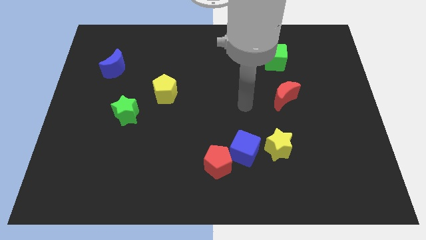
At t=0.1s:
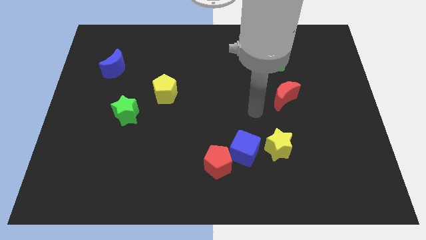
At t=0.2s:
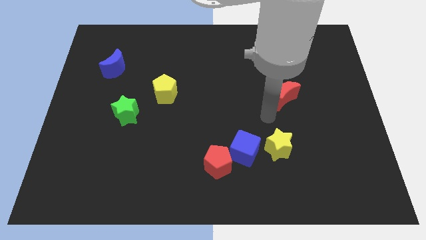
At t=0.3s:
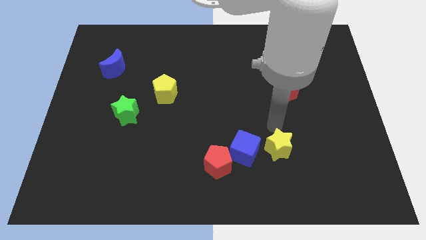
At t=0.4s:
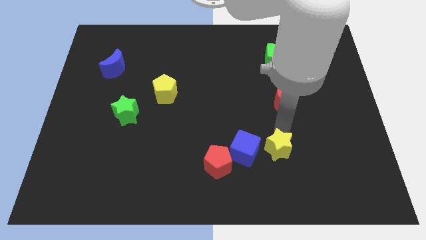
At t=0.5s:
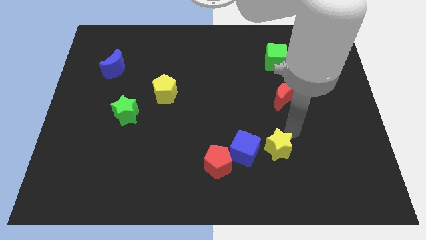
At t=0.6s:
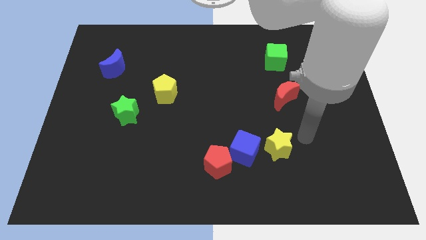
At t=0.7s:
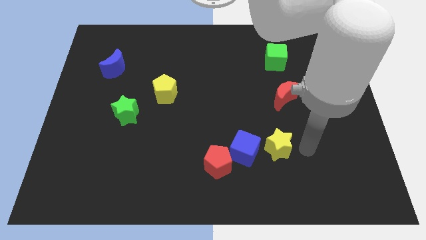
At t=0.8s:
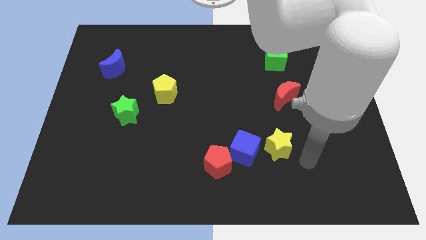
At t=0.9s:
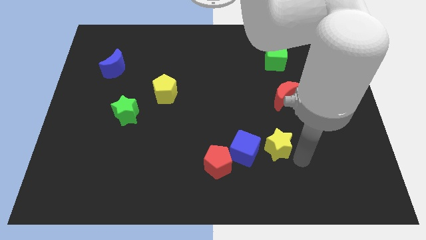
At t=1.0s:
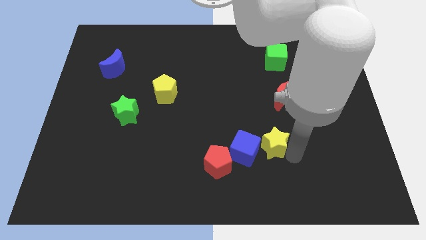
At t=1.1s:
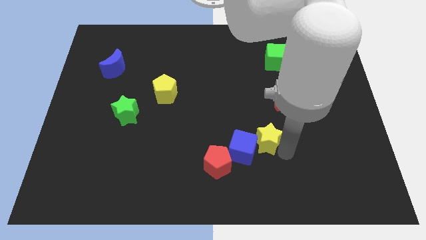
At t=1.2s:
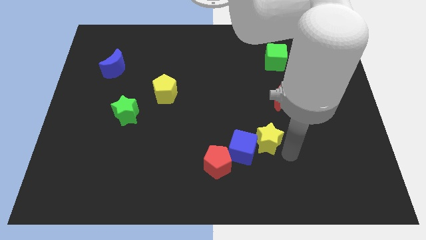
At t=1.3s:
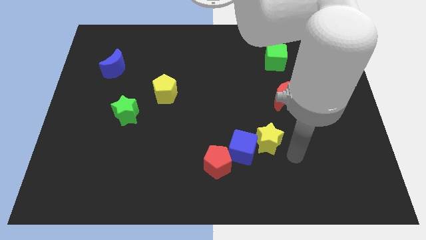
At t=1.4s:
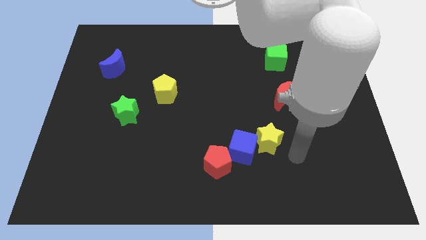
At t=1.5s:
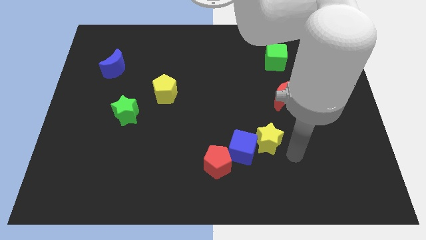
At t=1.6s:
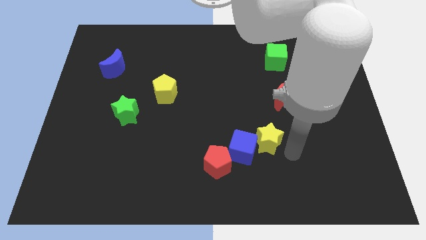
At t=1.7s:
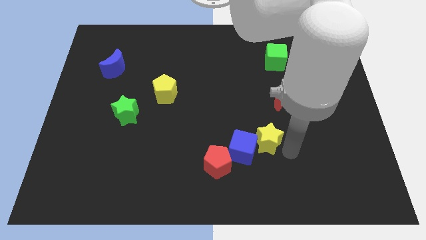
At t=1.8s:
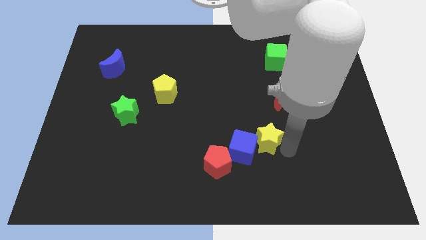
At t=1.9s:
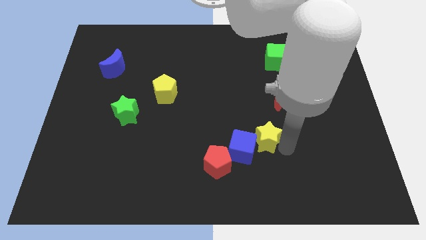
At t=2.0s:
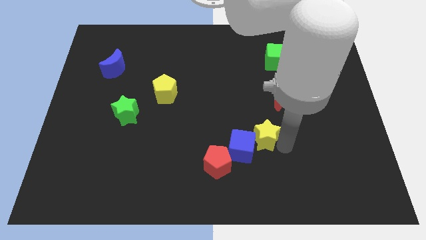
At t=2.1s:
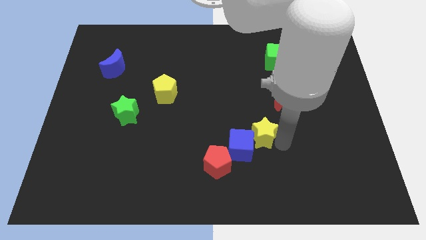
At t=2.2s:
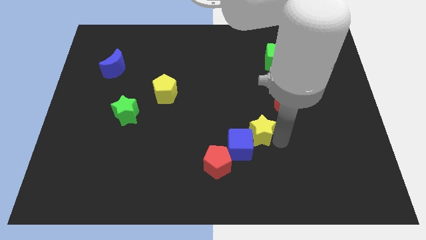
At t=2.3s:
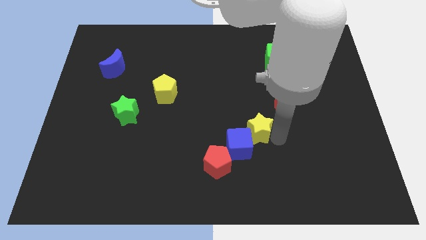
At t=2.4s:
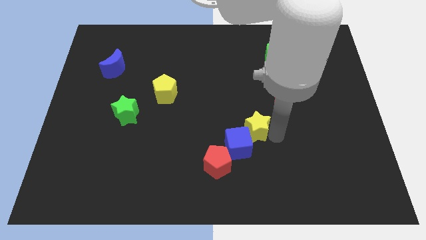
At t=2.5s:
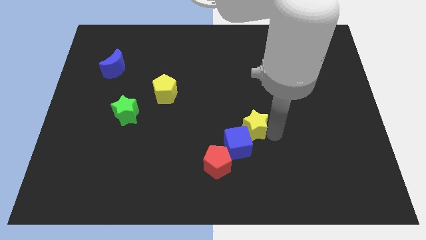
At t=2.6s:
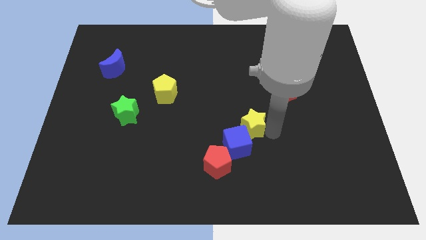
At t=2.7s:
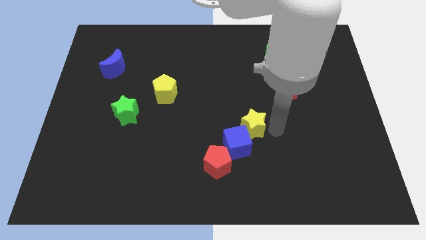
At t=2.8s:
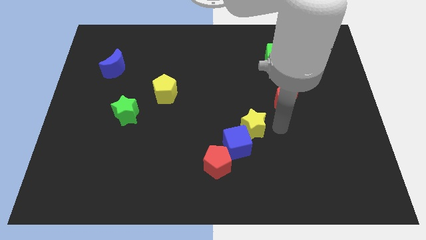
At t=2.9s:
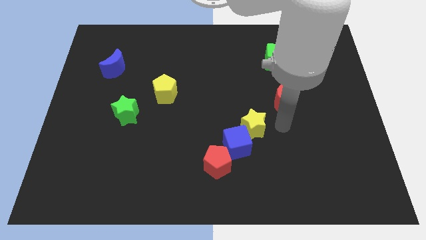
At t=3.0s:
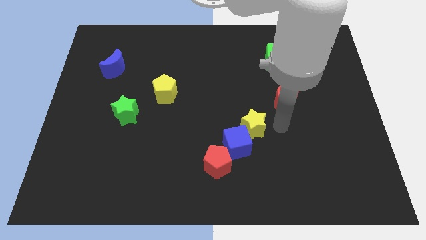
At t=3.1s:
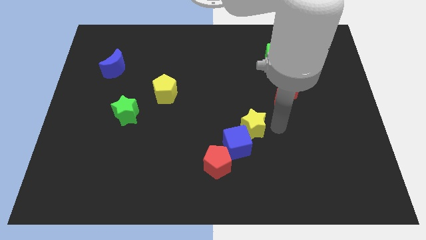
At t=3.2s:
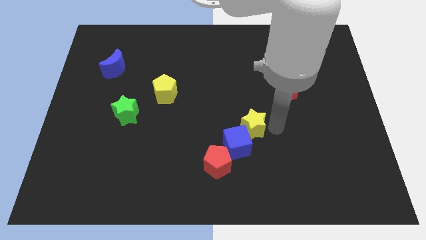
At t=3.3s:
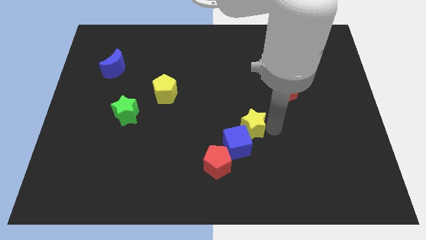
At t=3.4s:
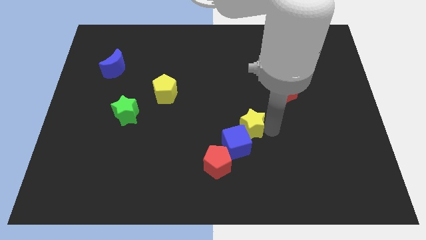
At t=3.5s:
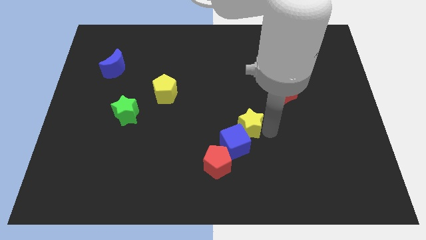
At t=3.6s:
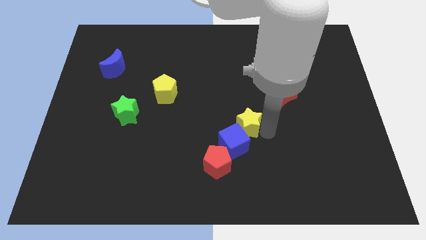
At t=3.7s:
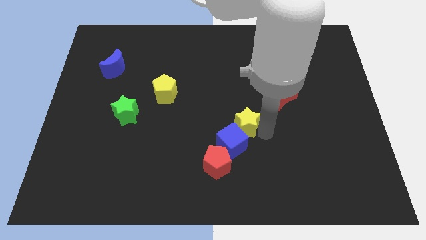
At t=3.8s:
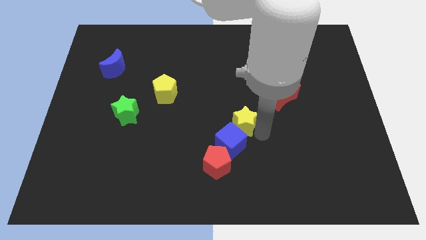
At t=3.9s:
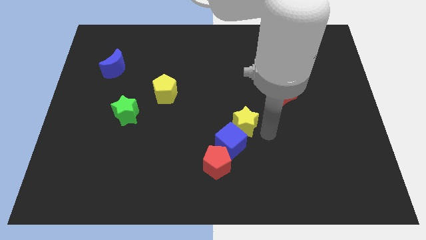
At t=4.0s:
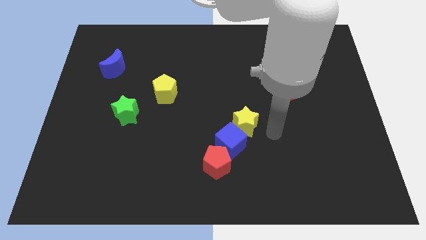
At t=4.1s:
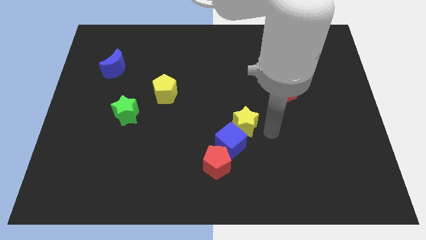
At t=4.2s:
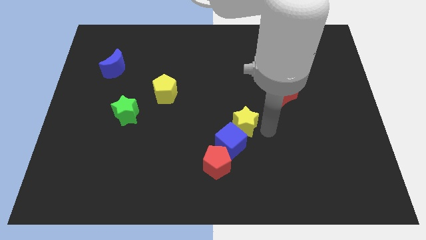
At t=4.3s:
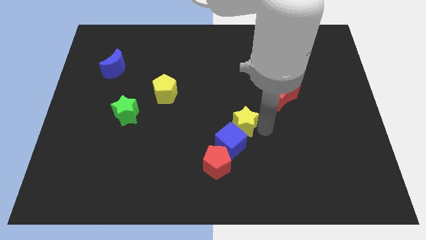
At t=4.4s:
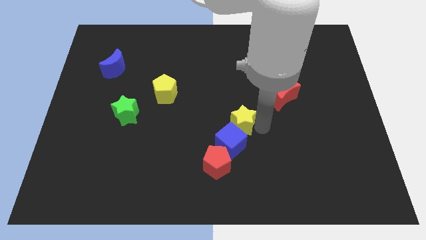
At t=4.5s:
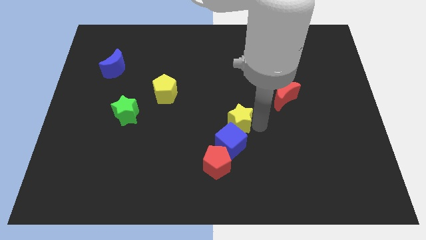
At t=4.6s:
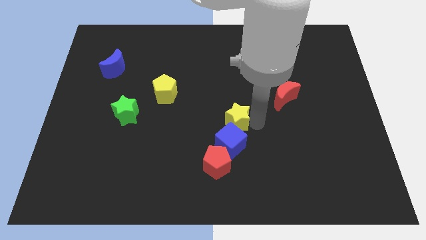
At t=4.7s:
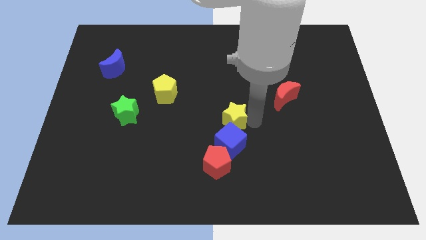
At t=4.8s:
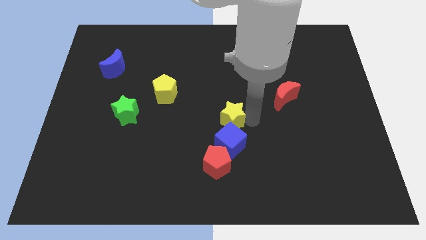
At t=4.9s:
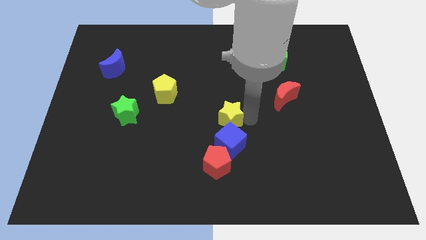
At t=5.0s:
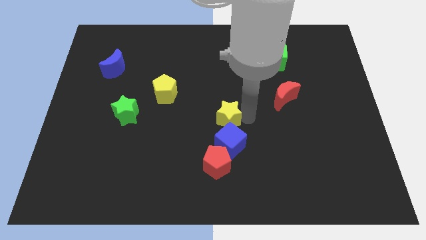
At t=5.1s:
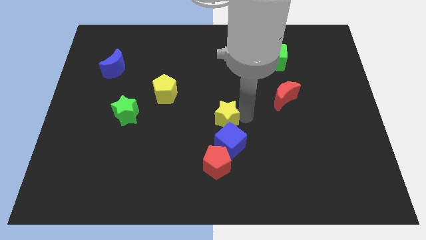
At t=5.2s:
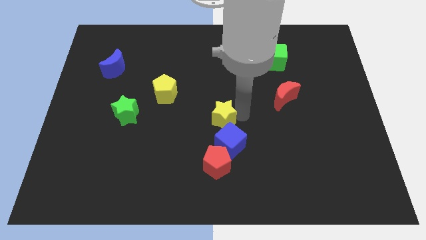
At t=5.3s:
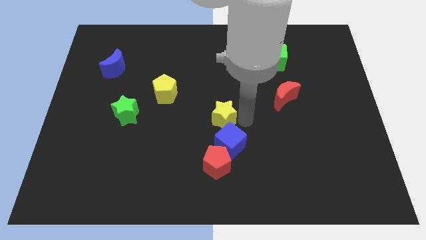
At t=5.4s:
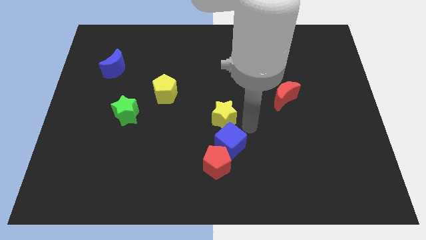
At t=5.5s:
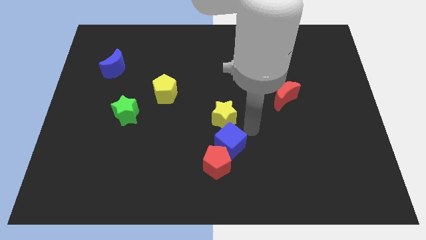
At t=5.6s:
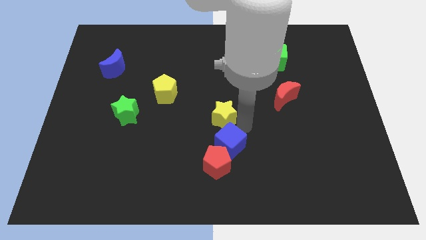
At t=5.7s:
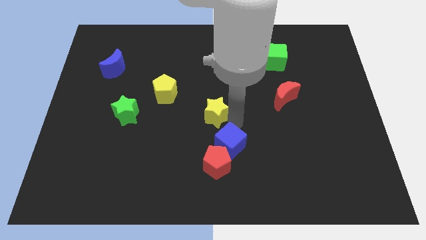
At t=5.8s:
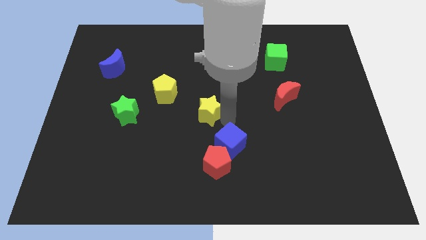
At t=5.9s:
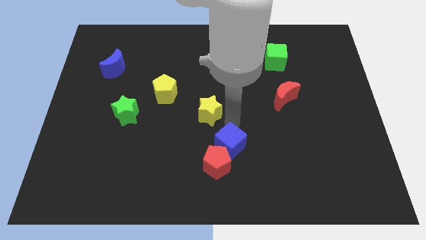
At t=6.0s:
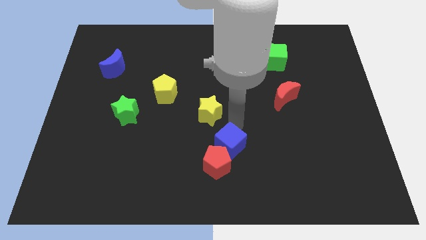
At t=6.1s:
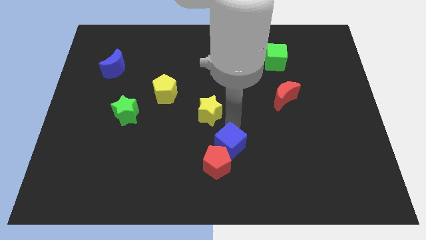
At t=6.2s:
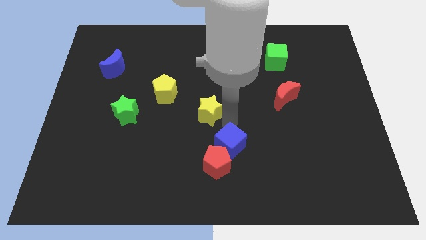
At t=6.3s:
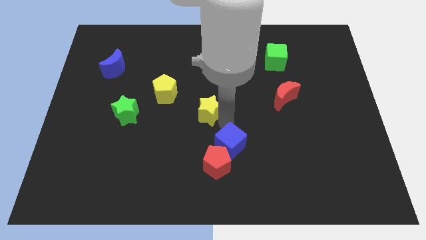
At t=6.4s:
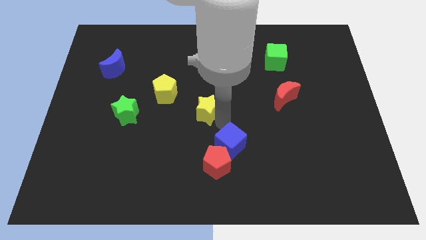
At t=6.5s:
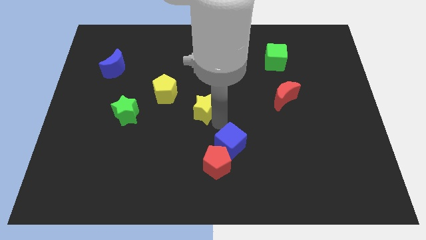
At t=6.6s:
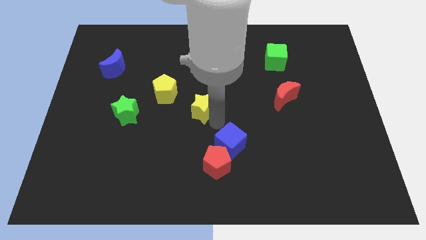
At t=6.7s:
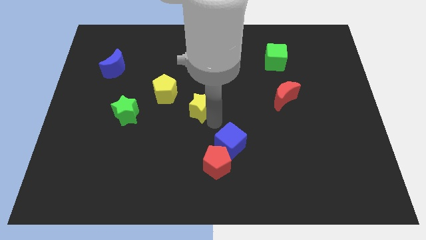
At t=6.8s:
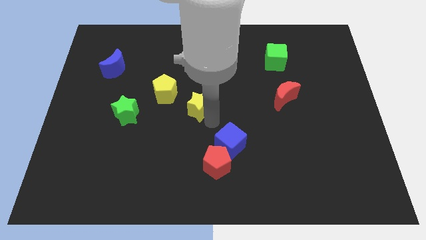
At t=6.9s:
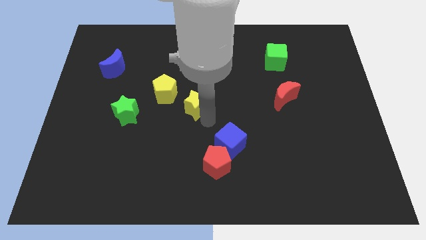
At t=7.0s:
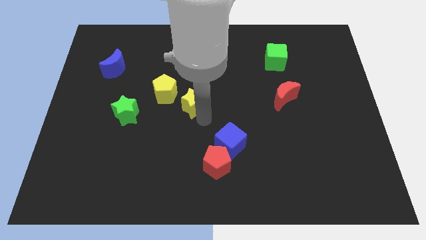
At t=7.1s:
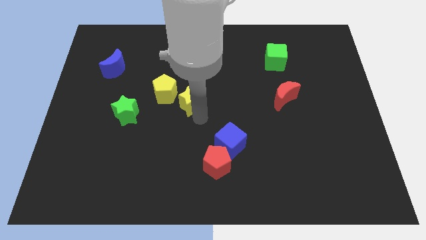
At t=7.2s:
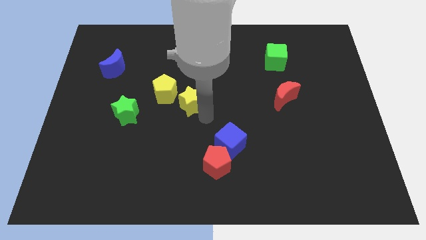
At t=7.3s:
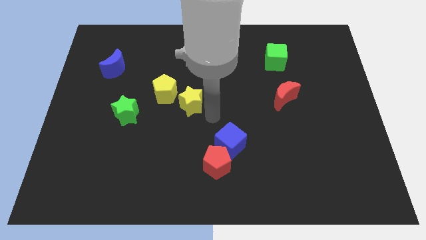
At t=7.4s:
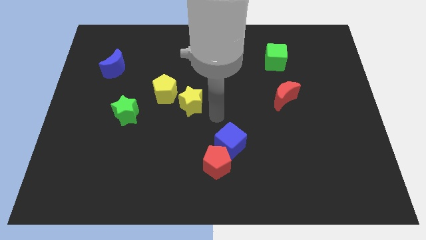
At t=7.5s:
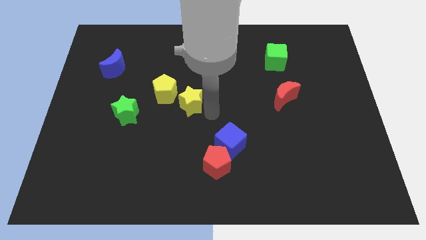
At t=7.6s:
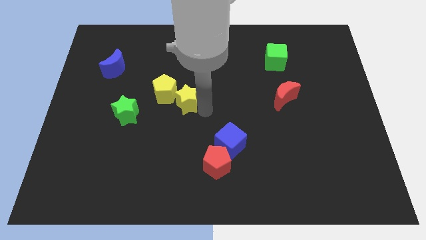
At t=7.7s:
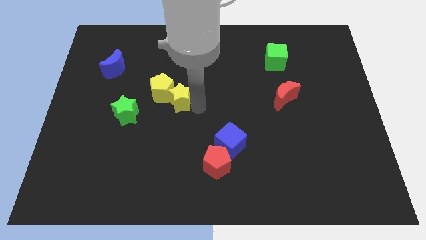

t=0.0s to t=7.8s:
push the yellow star close to the yellow pentagon
